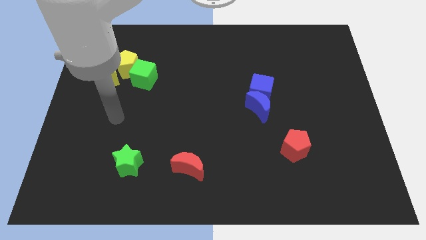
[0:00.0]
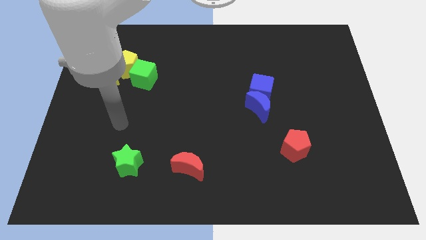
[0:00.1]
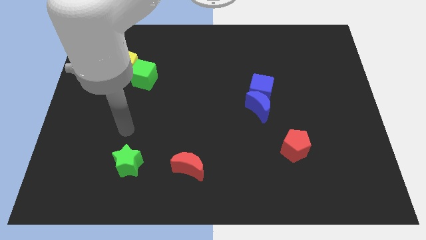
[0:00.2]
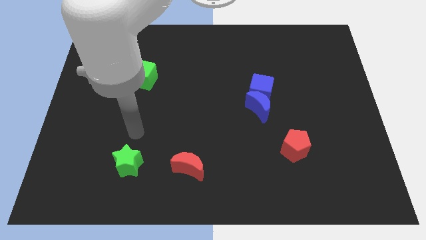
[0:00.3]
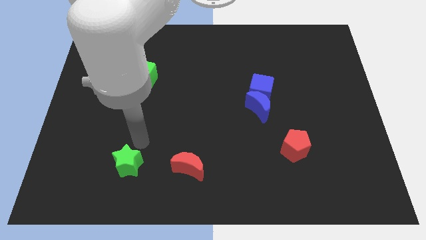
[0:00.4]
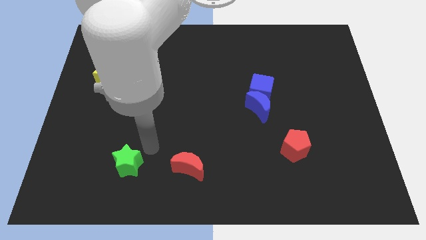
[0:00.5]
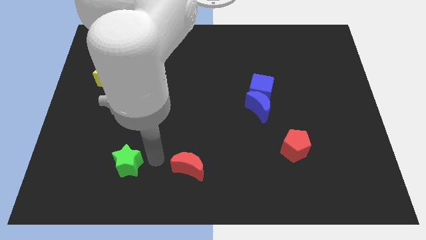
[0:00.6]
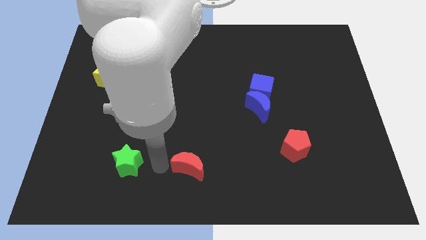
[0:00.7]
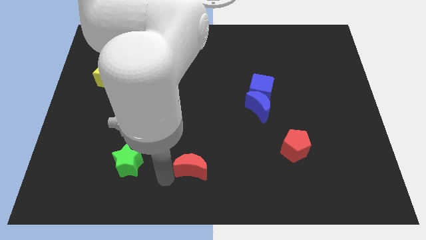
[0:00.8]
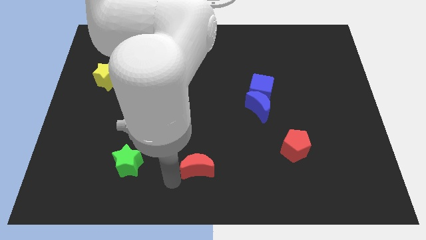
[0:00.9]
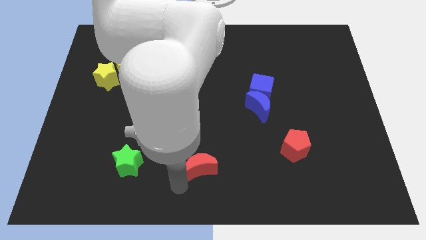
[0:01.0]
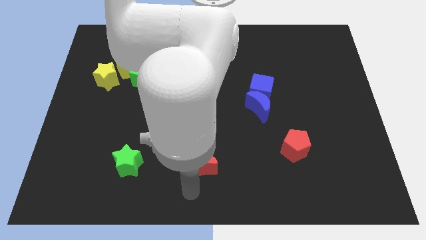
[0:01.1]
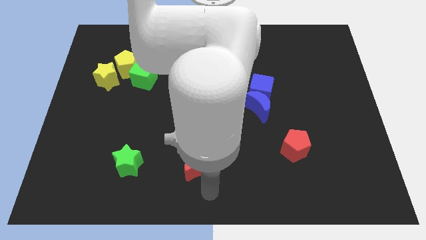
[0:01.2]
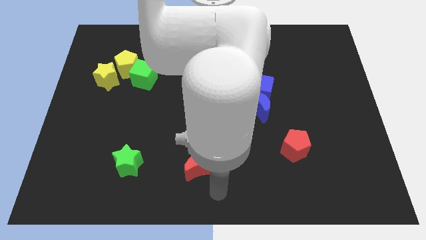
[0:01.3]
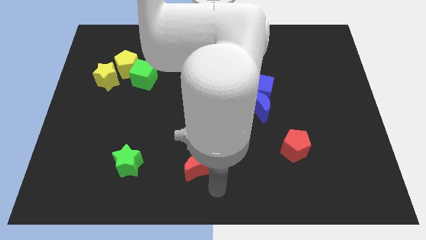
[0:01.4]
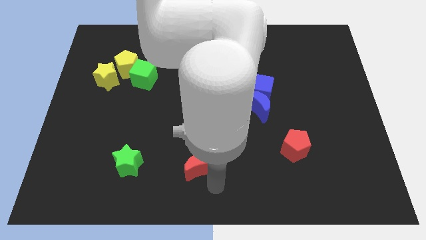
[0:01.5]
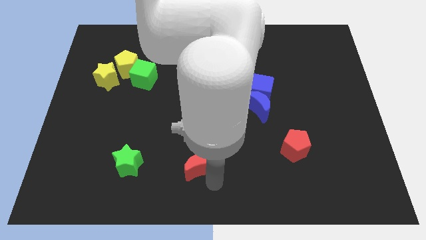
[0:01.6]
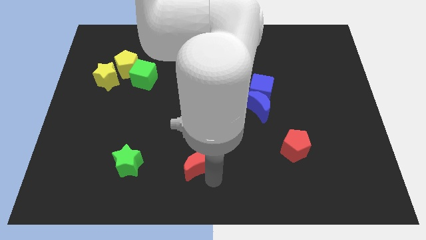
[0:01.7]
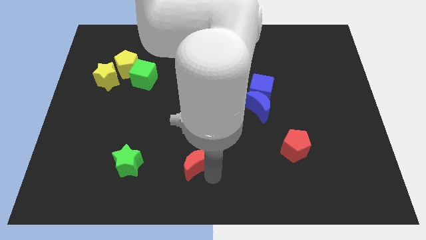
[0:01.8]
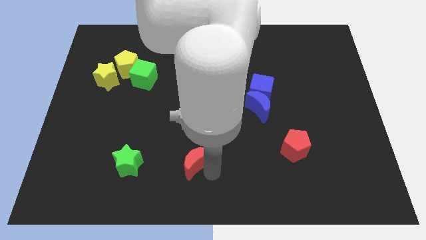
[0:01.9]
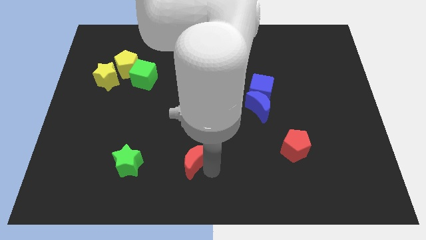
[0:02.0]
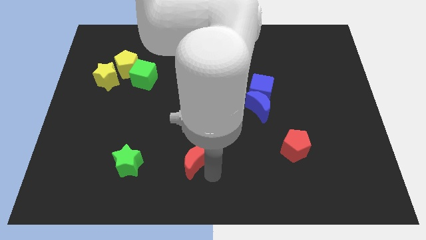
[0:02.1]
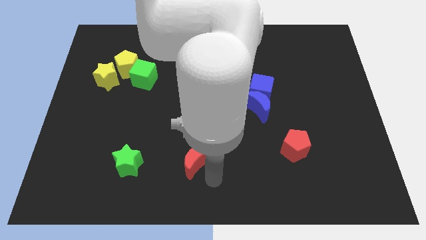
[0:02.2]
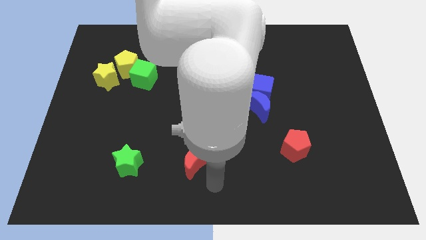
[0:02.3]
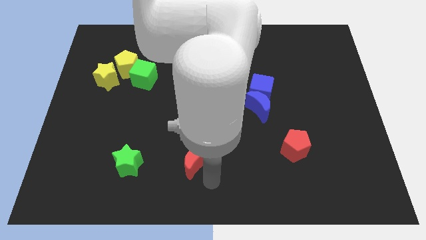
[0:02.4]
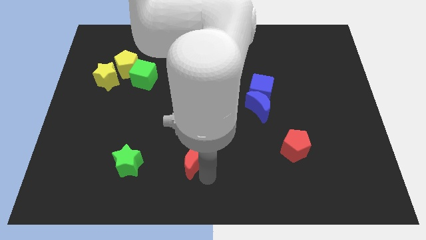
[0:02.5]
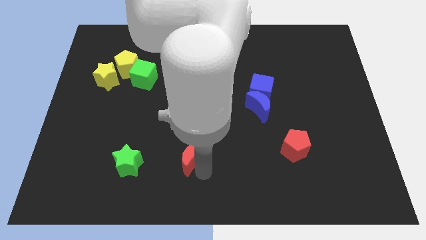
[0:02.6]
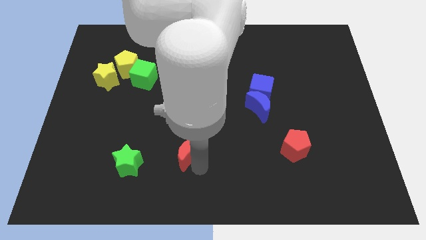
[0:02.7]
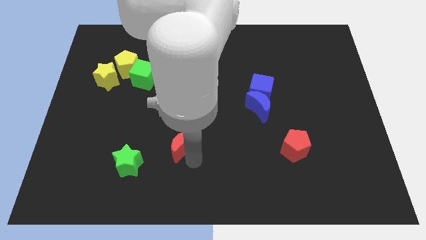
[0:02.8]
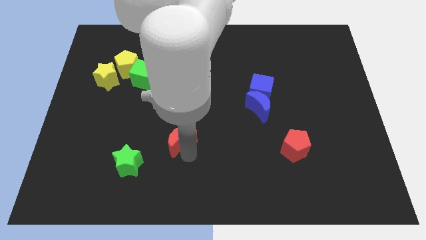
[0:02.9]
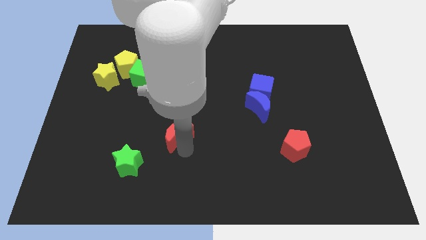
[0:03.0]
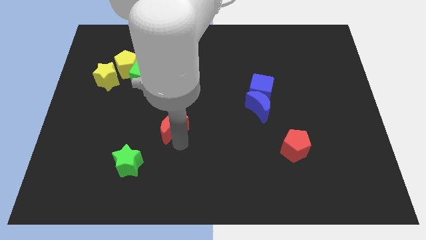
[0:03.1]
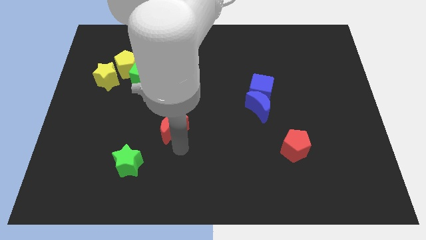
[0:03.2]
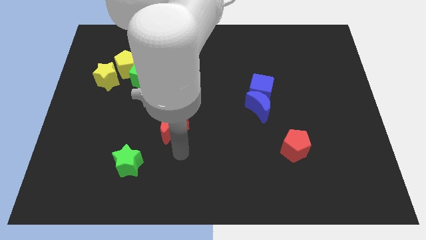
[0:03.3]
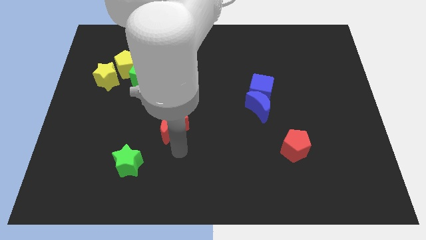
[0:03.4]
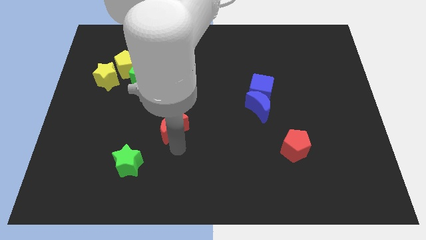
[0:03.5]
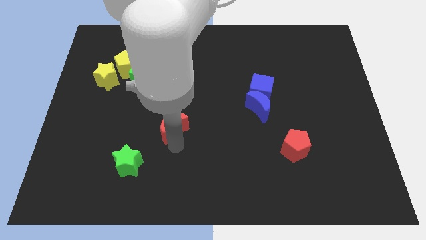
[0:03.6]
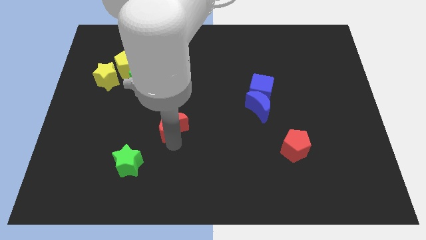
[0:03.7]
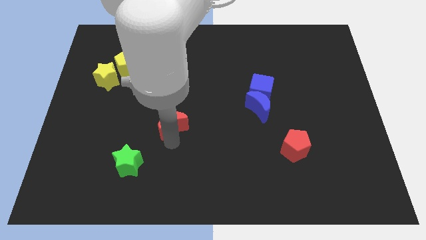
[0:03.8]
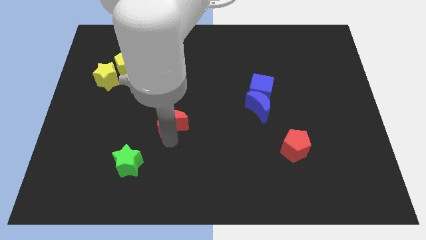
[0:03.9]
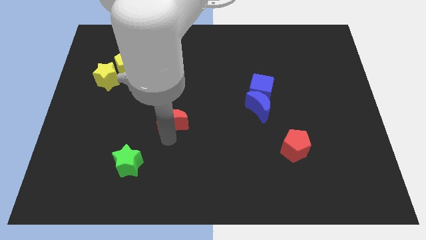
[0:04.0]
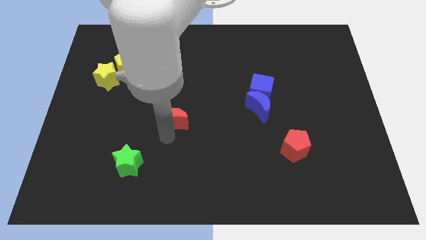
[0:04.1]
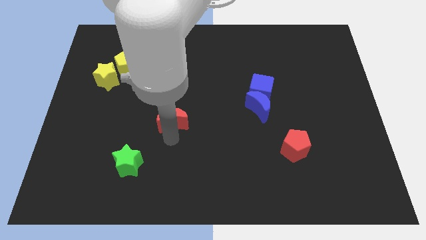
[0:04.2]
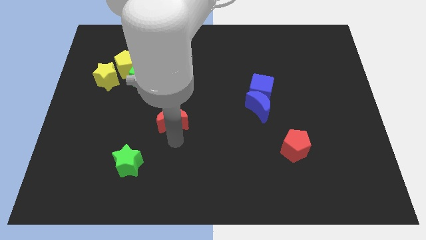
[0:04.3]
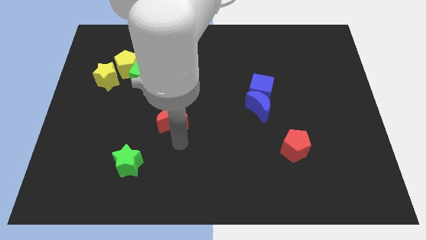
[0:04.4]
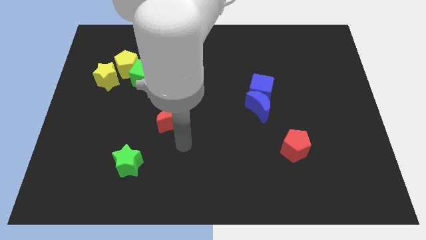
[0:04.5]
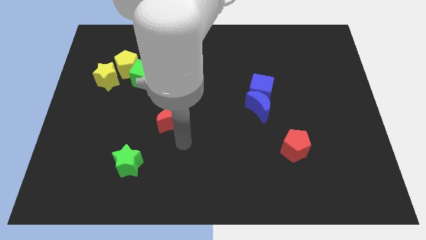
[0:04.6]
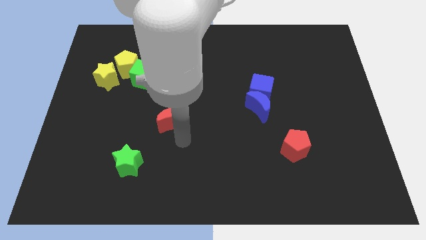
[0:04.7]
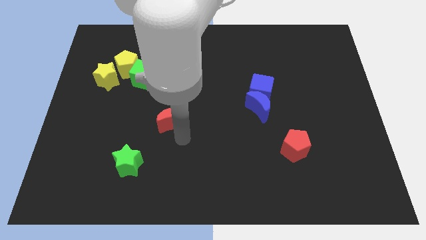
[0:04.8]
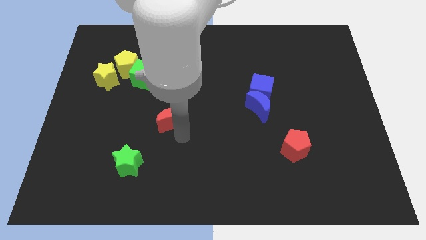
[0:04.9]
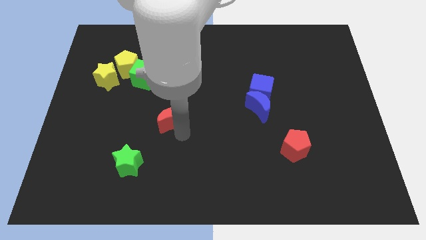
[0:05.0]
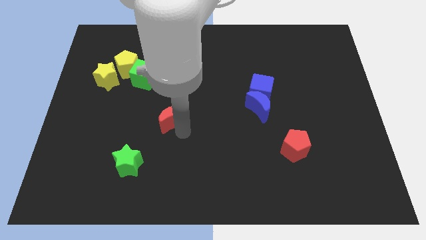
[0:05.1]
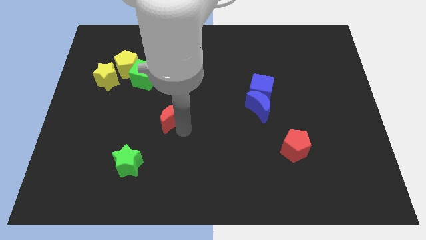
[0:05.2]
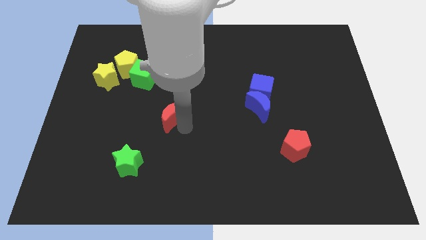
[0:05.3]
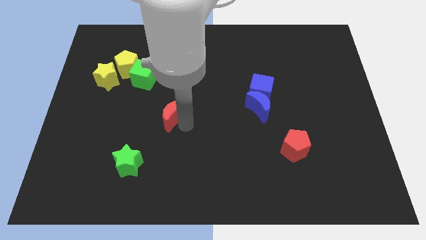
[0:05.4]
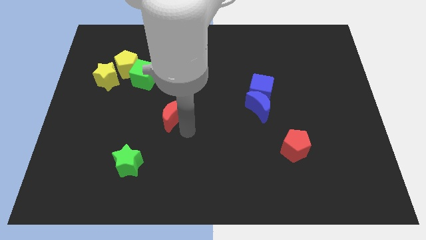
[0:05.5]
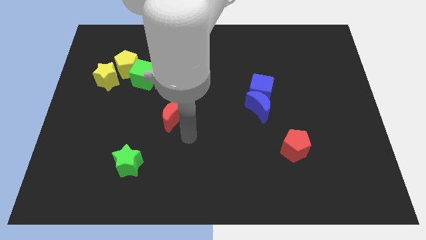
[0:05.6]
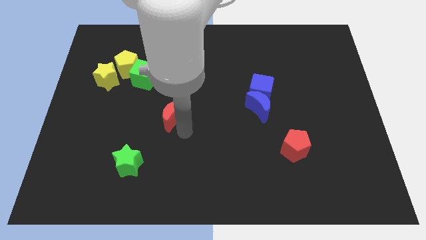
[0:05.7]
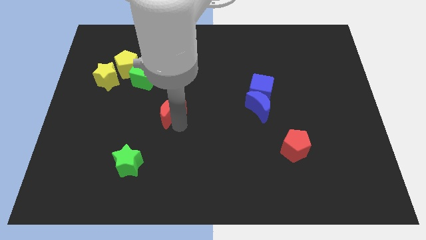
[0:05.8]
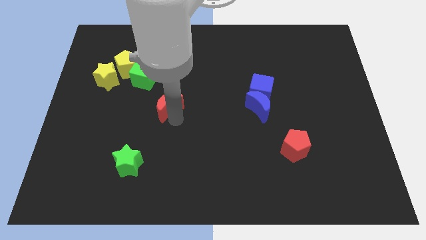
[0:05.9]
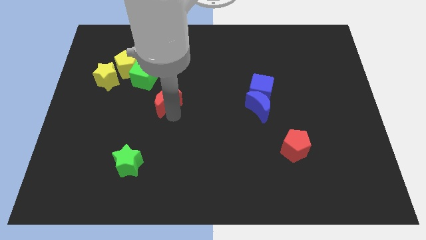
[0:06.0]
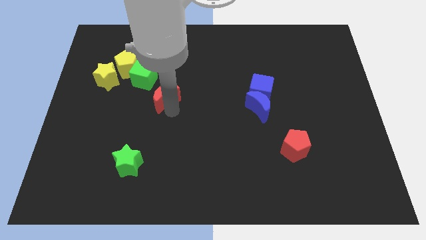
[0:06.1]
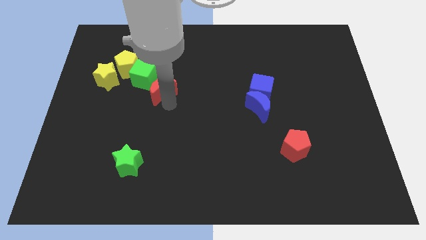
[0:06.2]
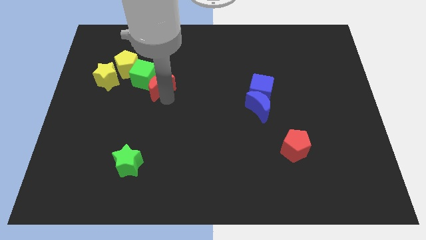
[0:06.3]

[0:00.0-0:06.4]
slide the red moon close to the green cube

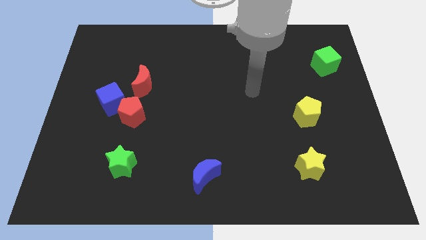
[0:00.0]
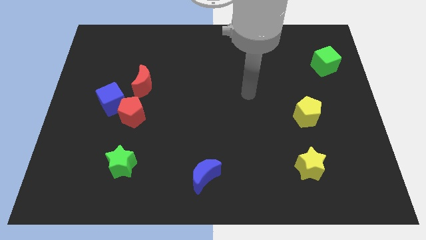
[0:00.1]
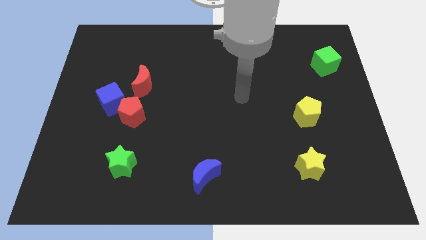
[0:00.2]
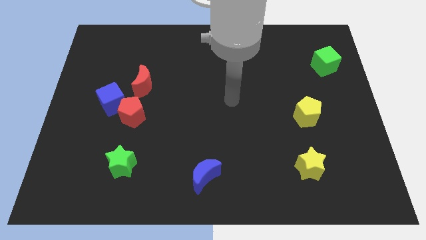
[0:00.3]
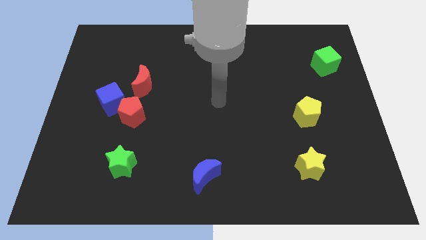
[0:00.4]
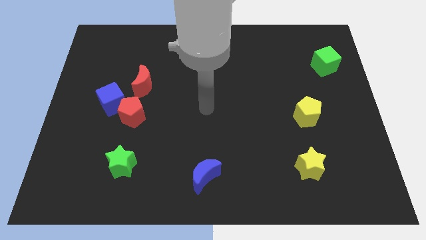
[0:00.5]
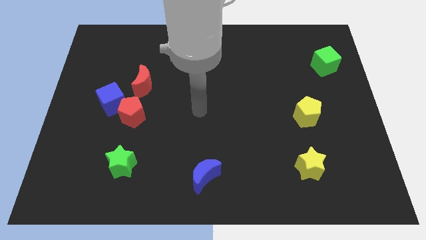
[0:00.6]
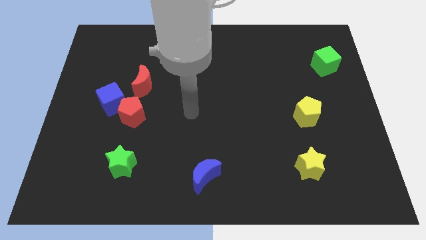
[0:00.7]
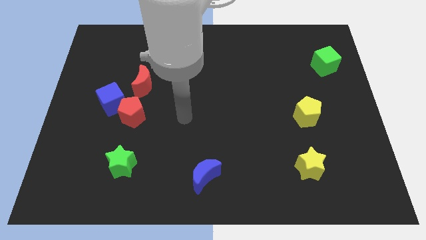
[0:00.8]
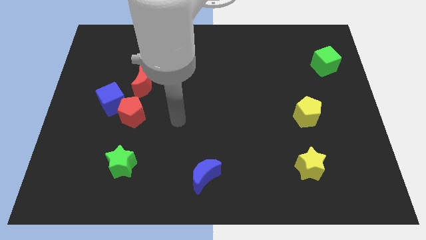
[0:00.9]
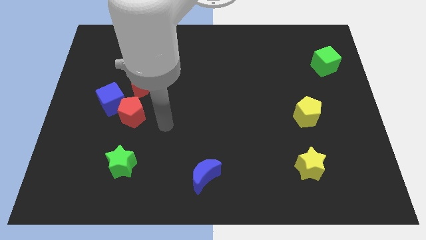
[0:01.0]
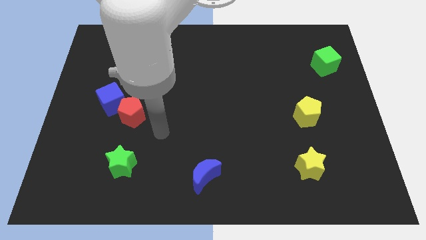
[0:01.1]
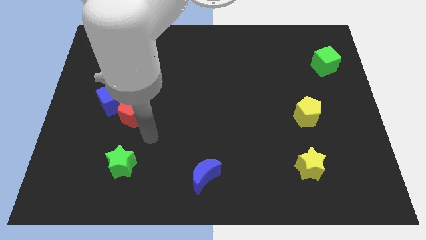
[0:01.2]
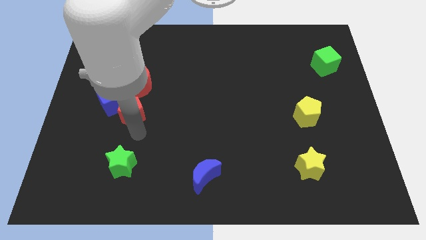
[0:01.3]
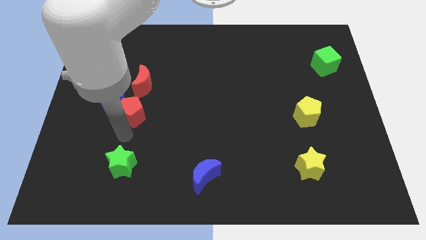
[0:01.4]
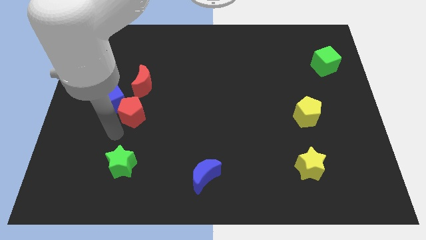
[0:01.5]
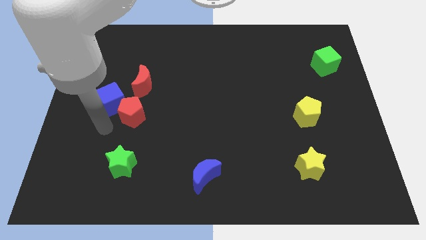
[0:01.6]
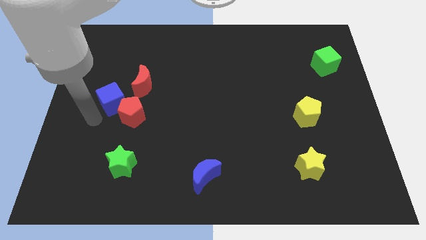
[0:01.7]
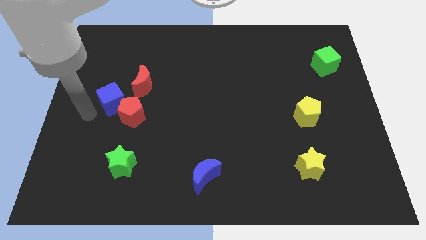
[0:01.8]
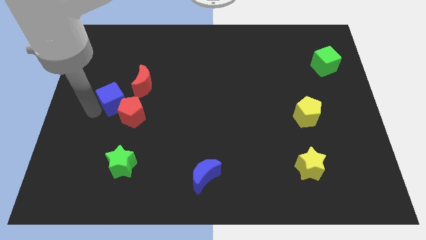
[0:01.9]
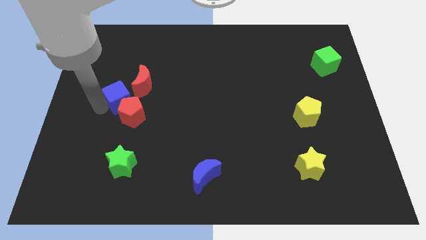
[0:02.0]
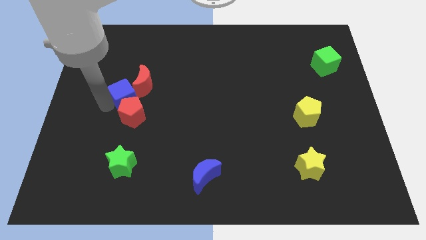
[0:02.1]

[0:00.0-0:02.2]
put the blue cube next to the red moon
